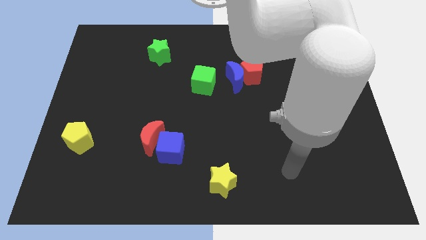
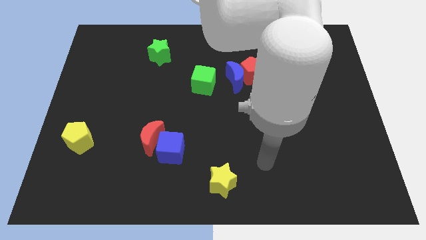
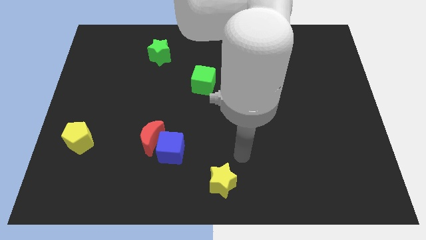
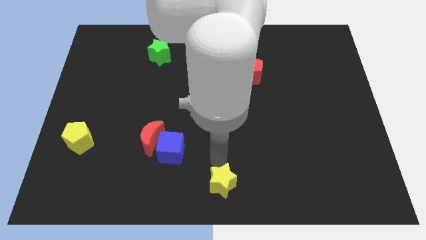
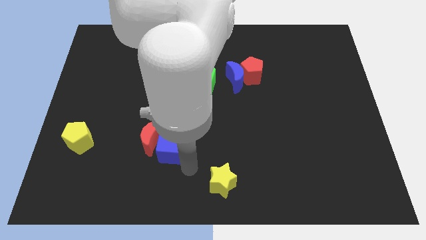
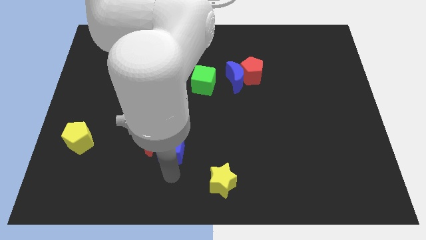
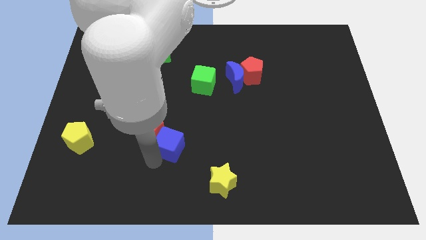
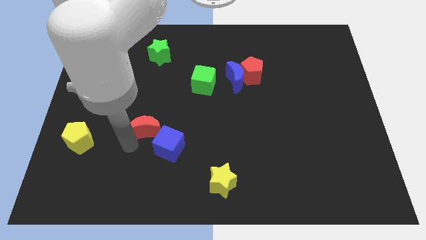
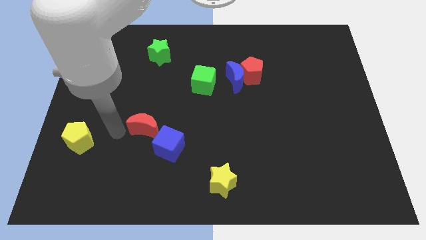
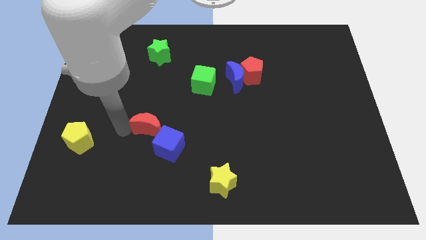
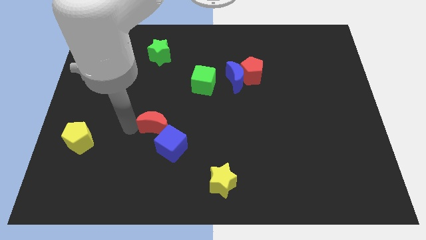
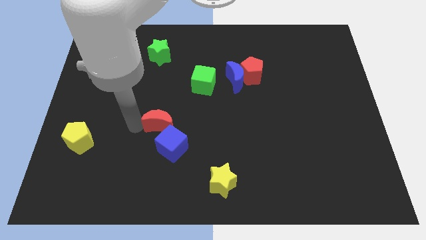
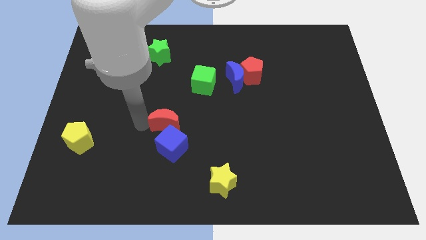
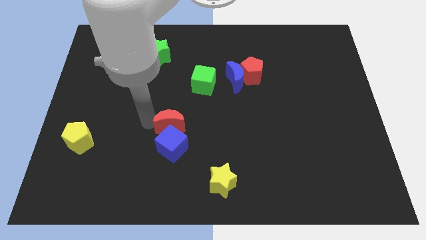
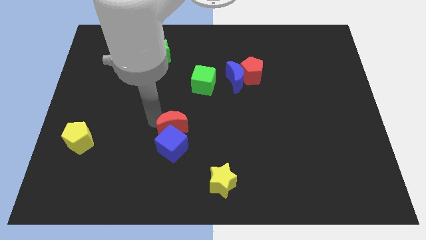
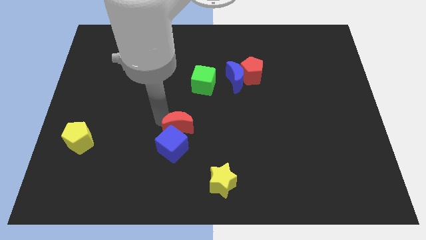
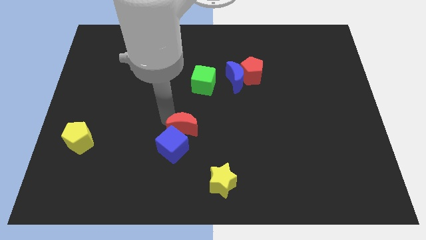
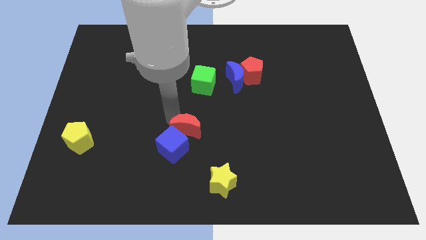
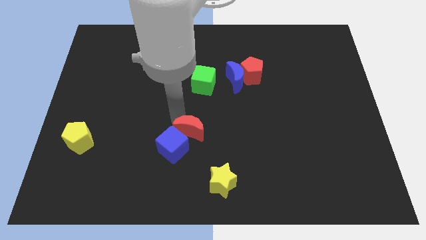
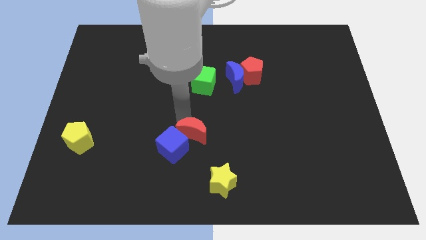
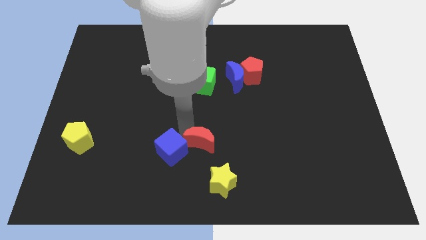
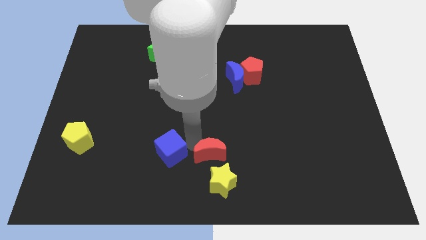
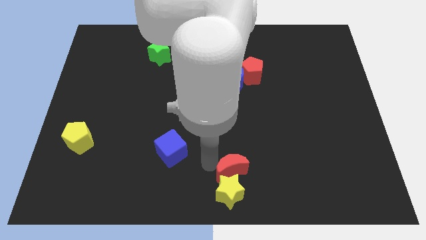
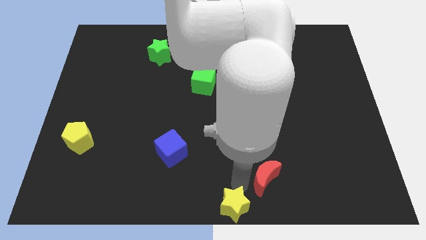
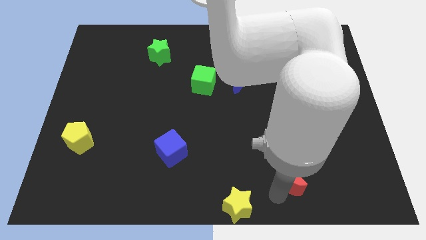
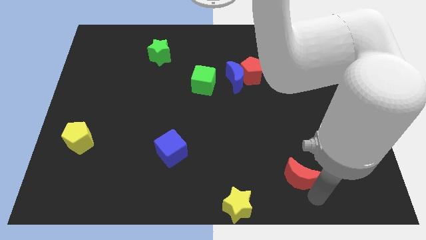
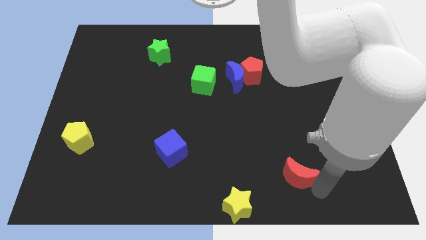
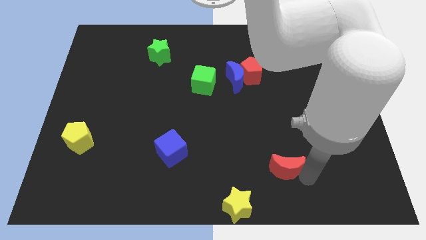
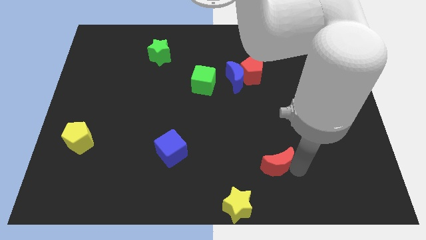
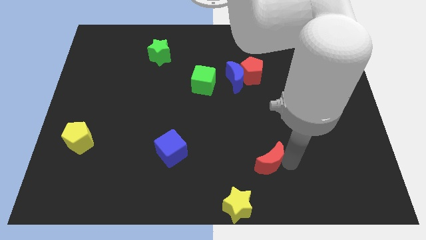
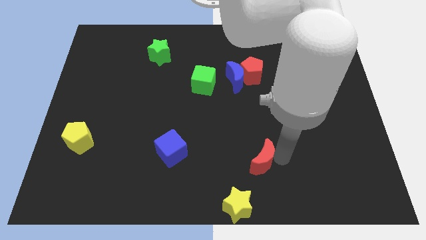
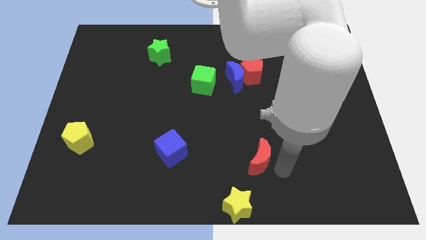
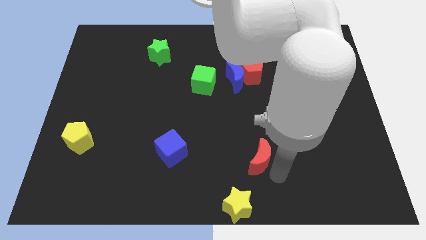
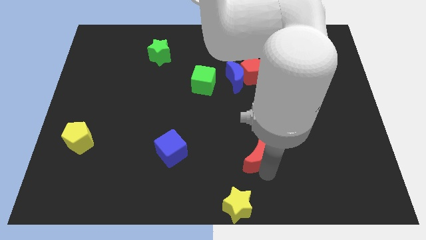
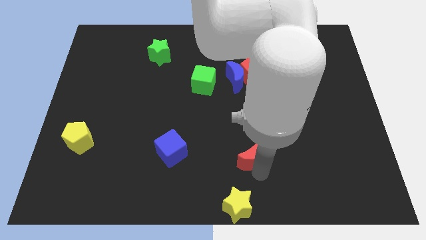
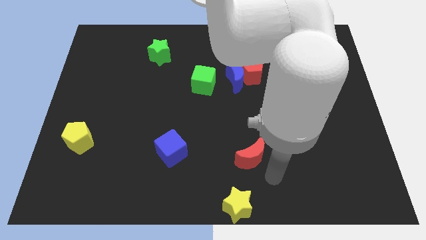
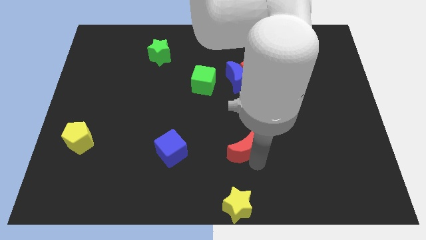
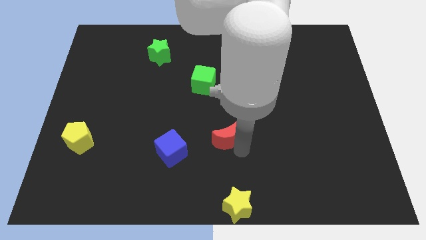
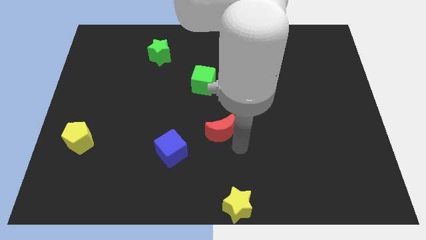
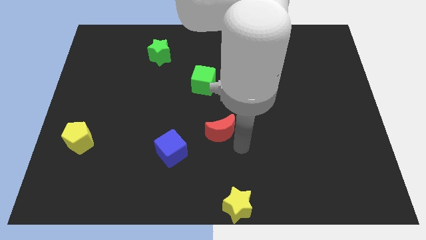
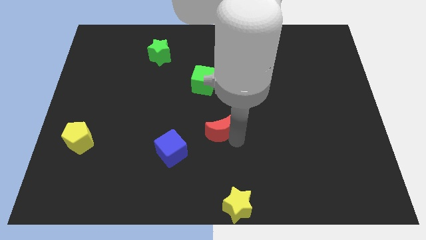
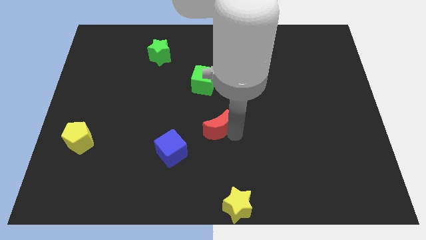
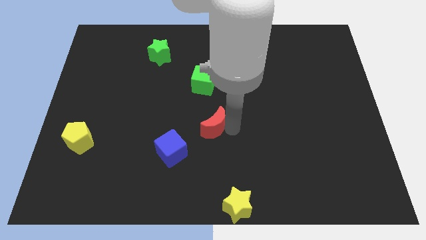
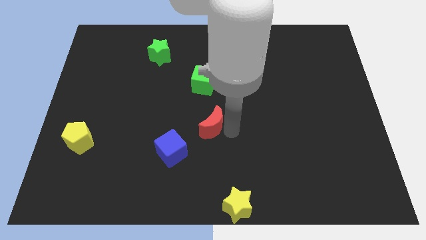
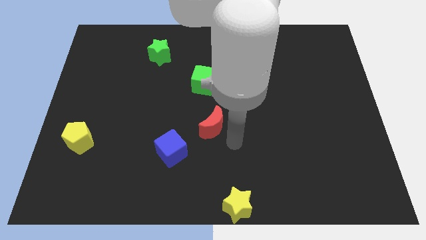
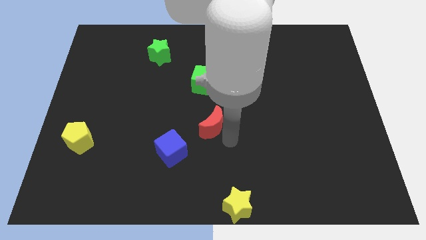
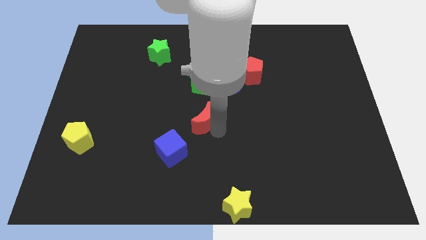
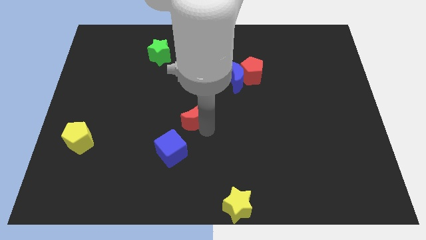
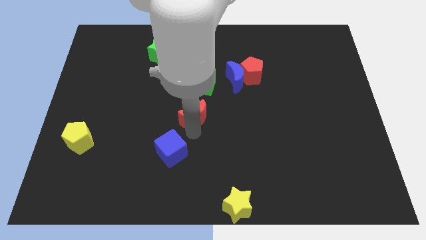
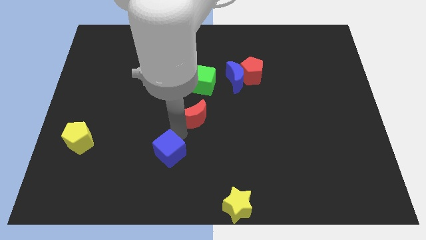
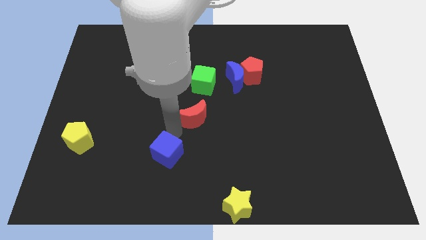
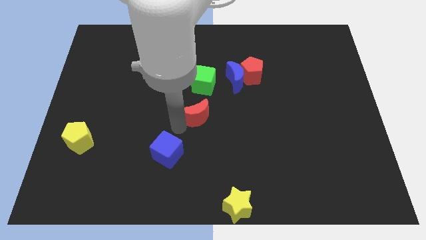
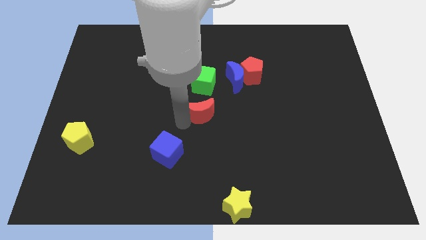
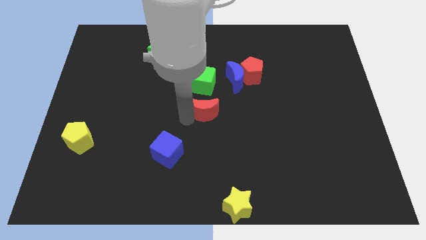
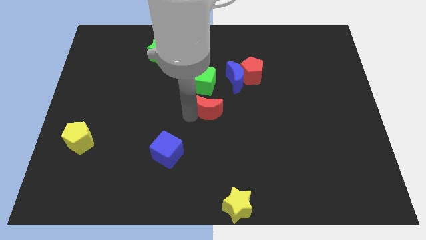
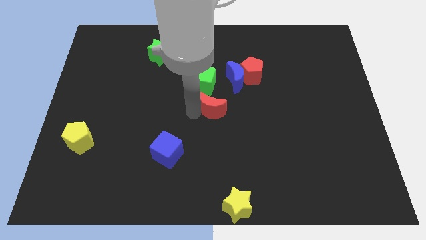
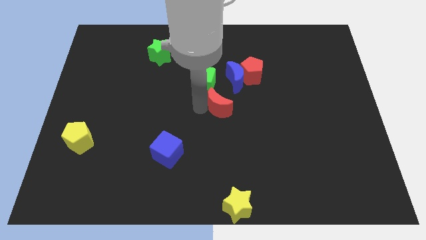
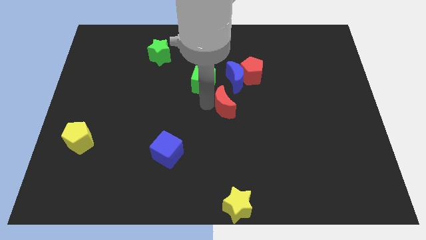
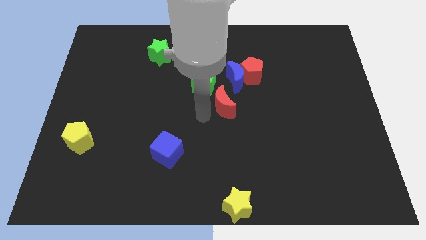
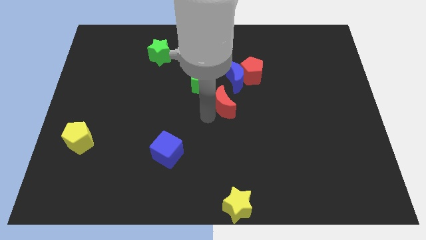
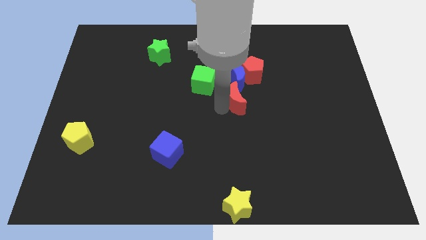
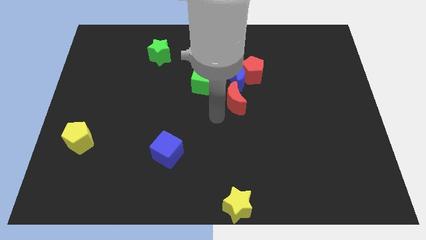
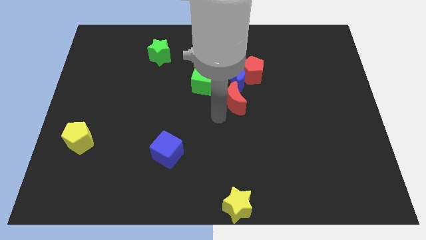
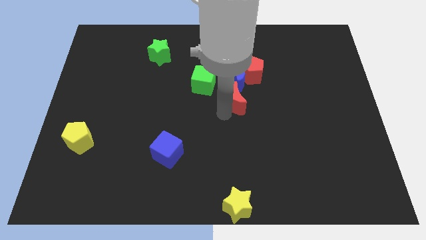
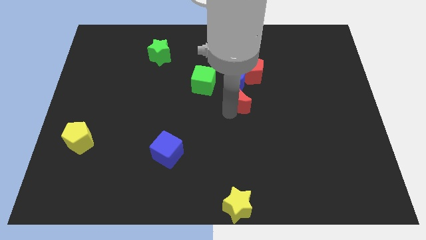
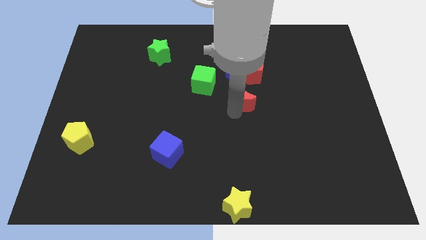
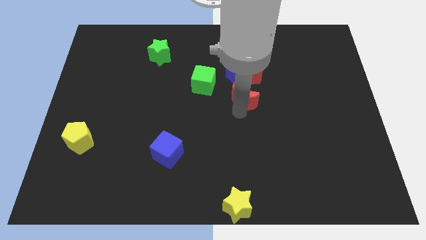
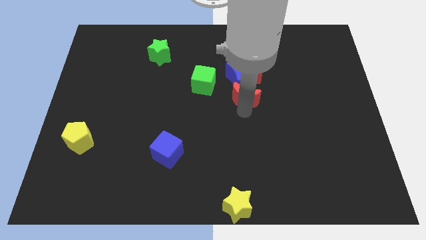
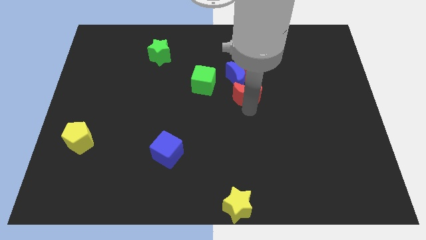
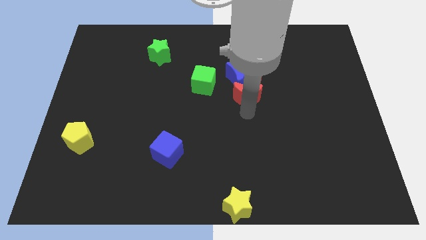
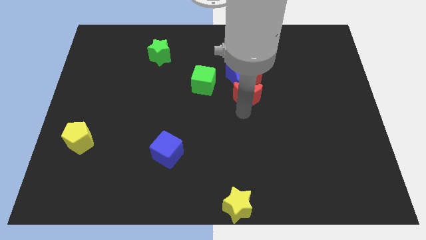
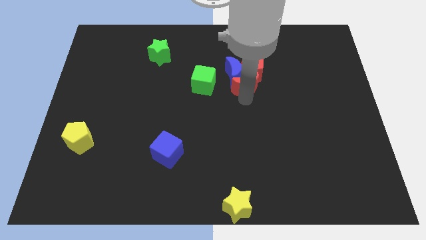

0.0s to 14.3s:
push the red moon next to the red pentagon
